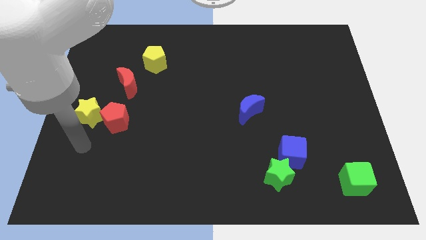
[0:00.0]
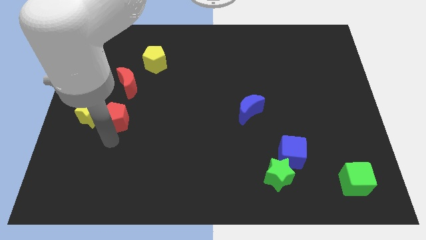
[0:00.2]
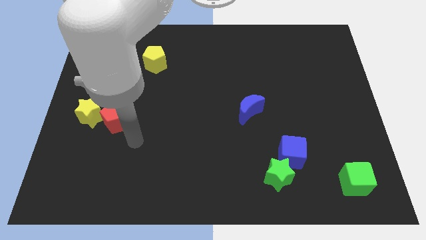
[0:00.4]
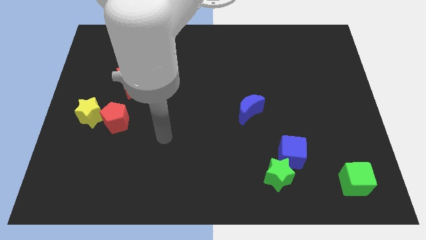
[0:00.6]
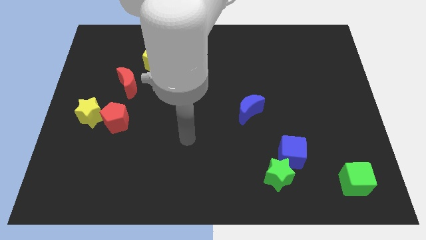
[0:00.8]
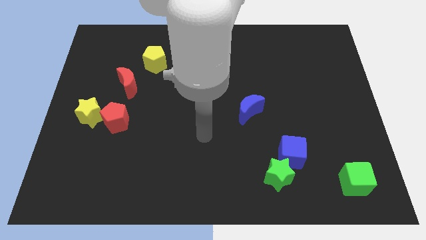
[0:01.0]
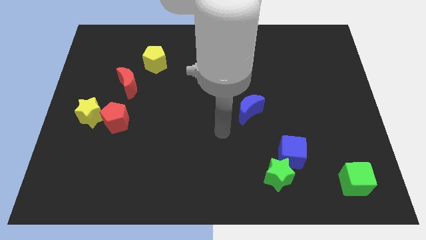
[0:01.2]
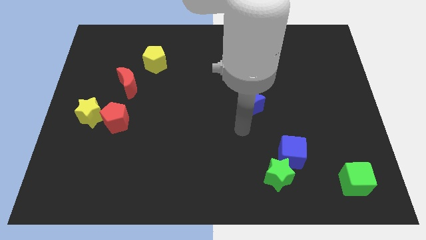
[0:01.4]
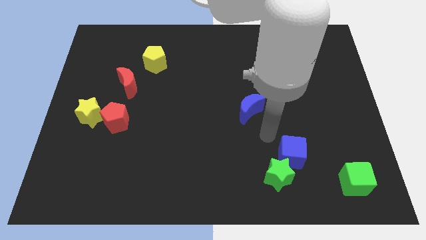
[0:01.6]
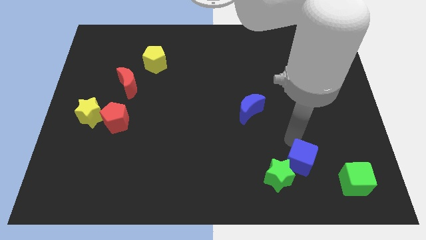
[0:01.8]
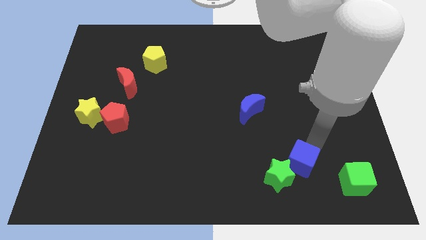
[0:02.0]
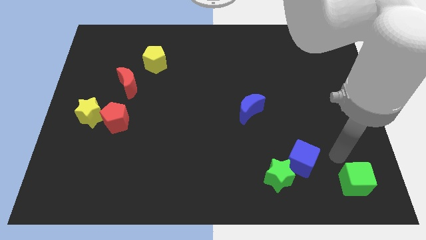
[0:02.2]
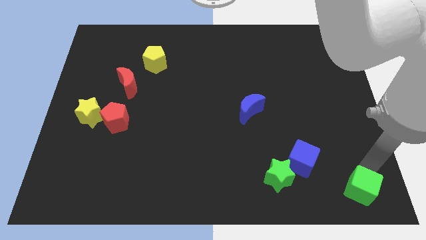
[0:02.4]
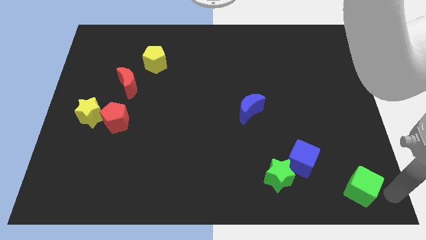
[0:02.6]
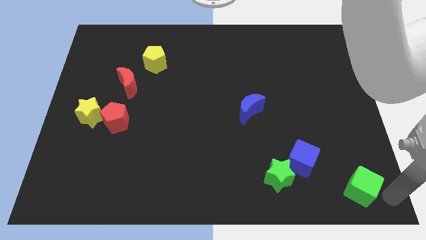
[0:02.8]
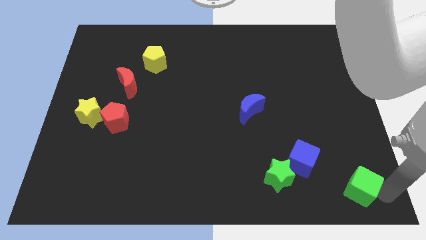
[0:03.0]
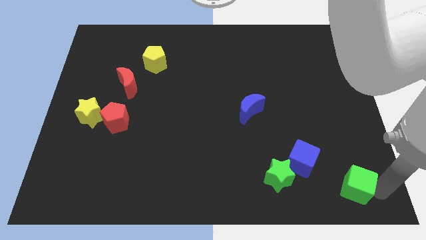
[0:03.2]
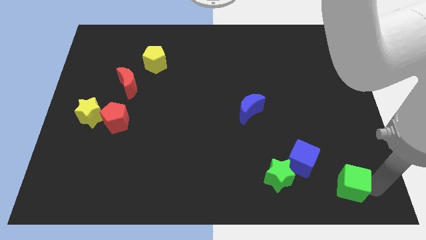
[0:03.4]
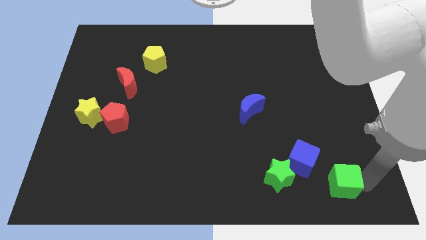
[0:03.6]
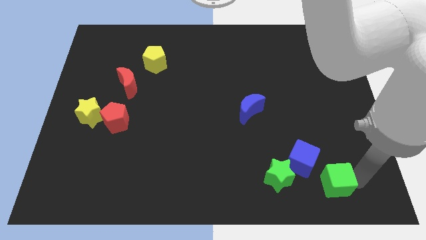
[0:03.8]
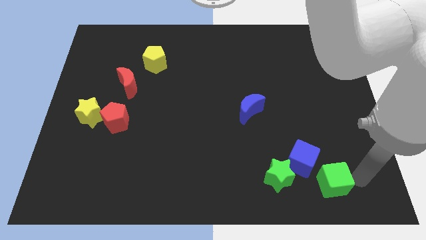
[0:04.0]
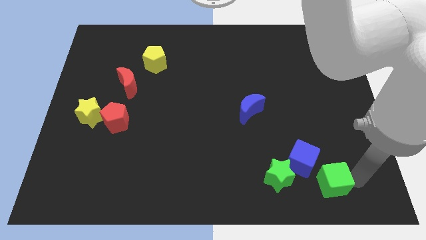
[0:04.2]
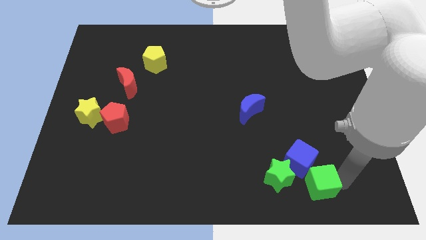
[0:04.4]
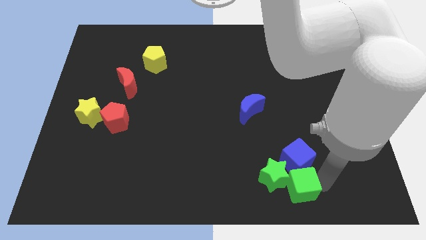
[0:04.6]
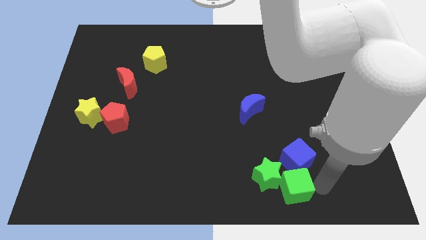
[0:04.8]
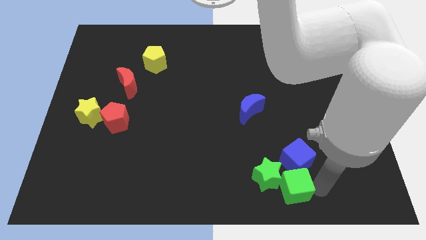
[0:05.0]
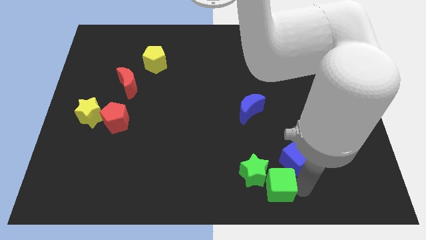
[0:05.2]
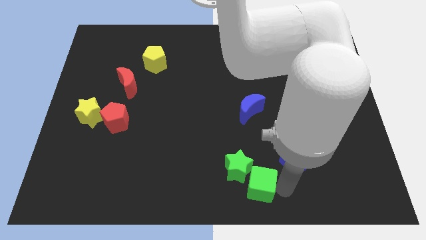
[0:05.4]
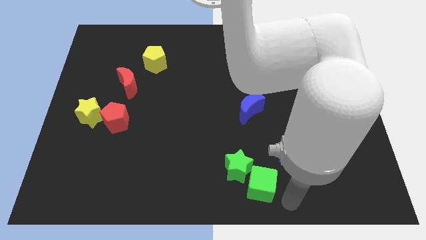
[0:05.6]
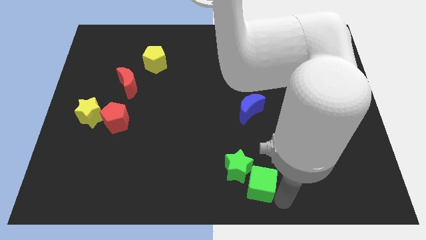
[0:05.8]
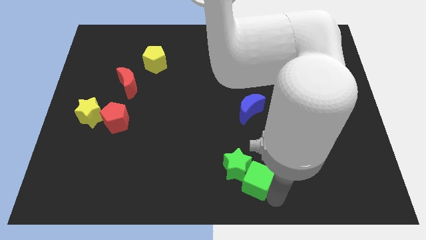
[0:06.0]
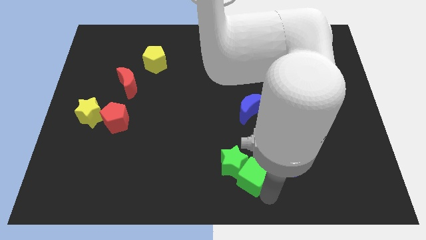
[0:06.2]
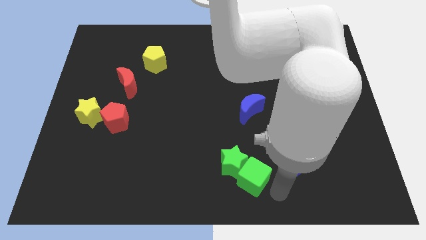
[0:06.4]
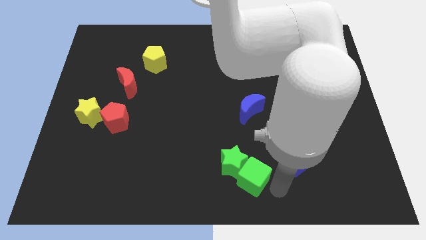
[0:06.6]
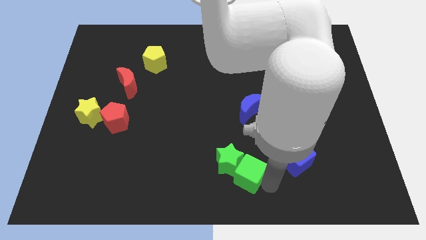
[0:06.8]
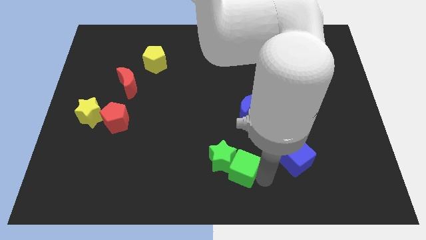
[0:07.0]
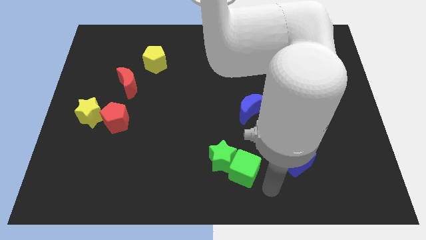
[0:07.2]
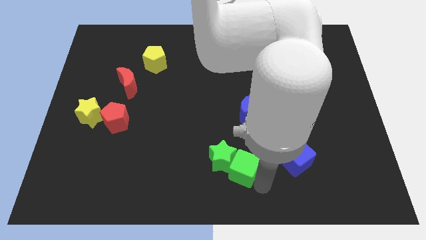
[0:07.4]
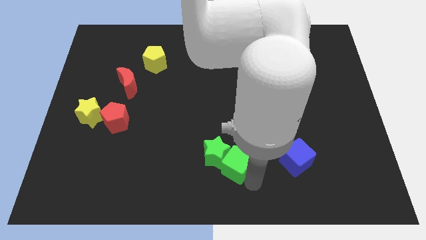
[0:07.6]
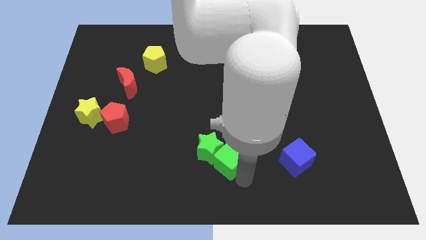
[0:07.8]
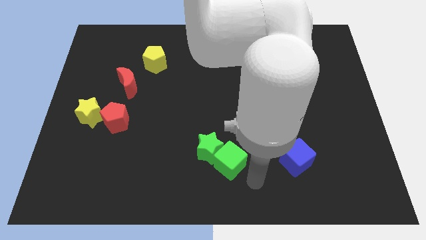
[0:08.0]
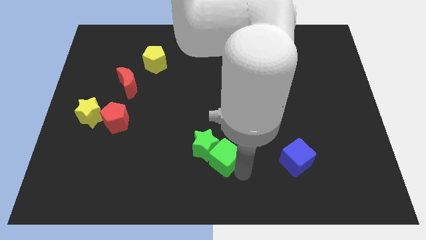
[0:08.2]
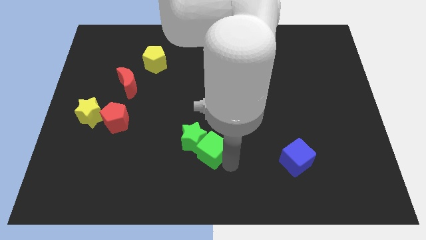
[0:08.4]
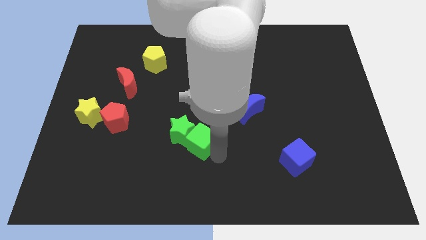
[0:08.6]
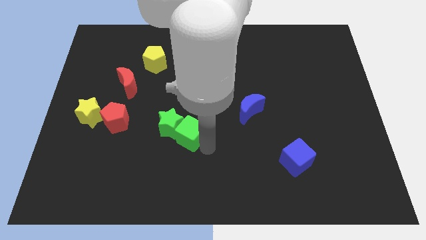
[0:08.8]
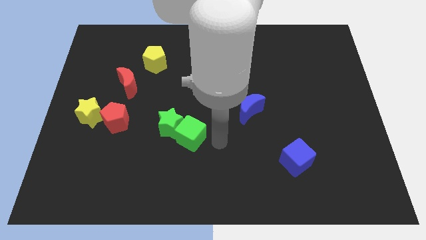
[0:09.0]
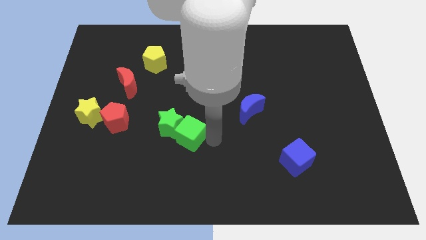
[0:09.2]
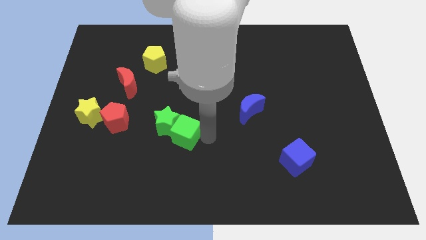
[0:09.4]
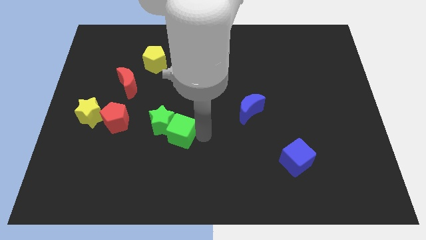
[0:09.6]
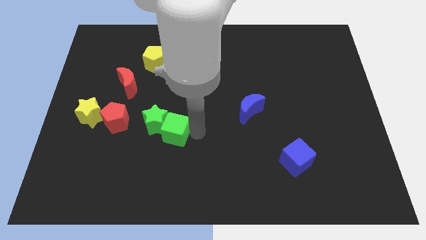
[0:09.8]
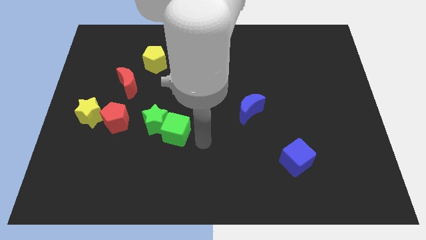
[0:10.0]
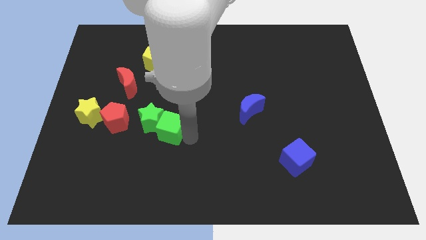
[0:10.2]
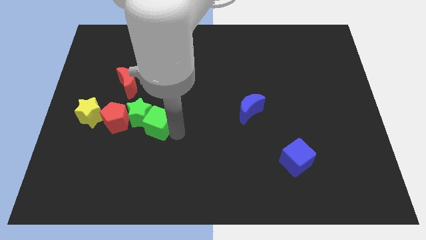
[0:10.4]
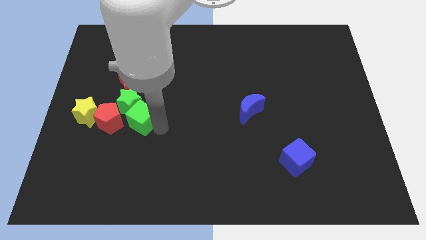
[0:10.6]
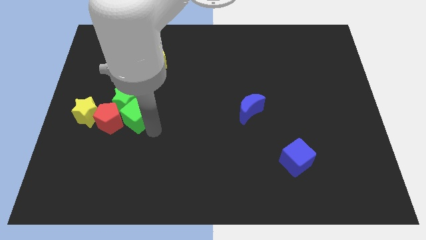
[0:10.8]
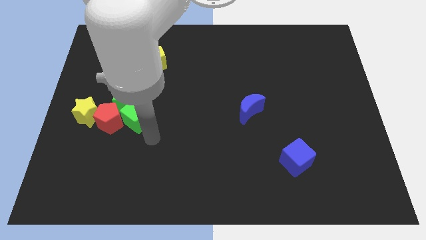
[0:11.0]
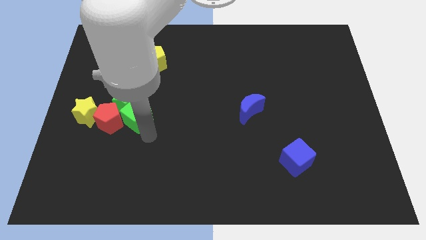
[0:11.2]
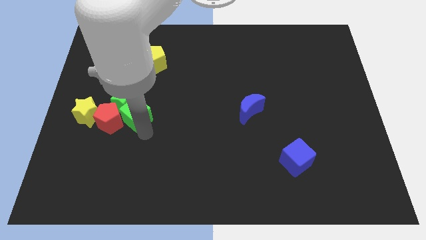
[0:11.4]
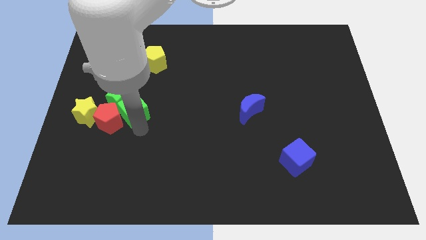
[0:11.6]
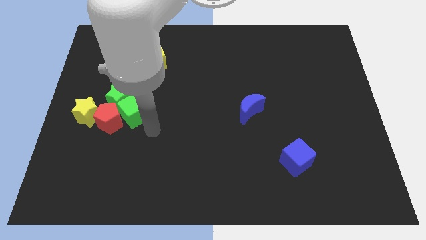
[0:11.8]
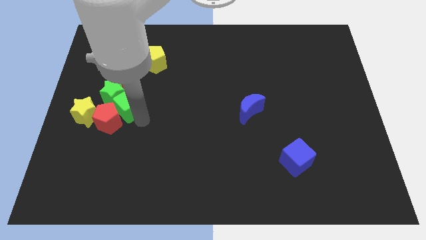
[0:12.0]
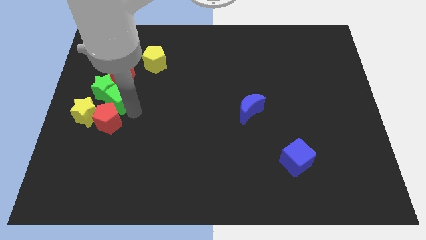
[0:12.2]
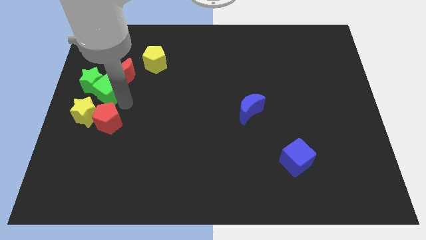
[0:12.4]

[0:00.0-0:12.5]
put the green cube above the yellow star

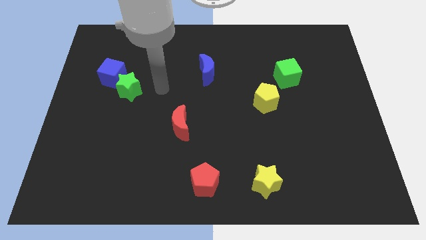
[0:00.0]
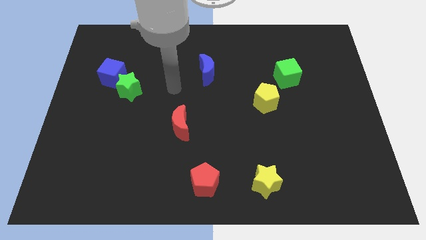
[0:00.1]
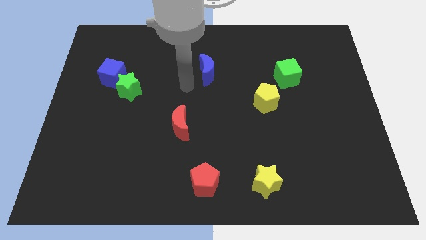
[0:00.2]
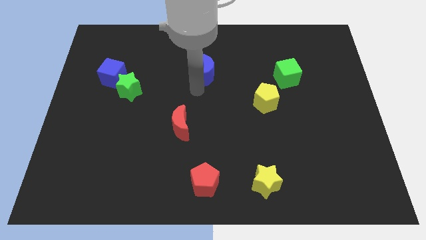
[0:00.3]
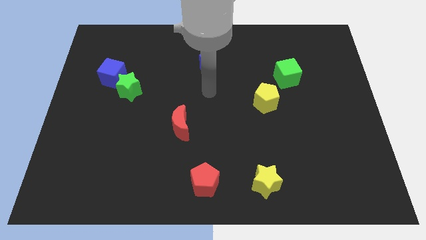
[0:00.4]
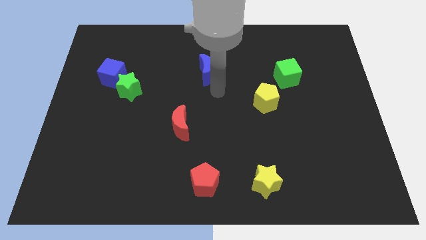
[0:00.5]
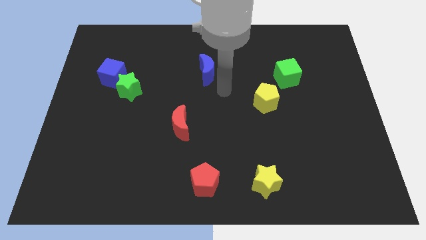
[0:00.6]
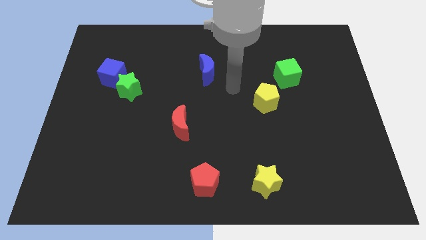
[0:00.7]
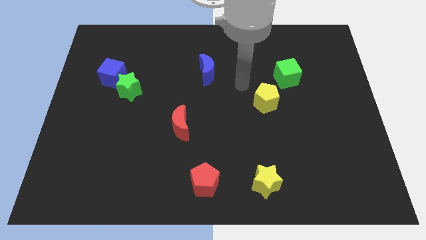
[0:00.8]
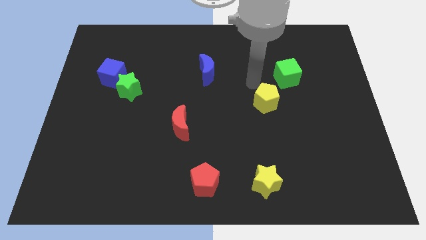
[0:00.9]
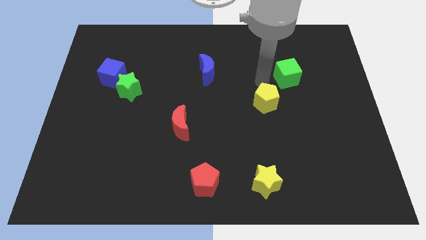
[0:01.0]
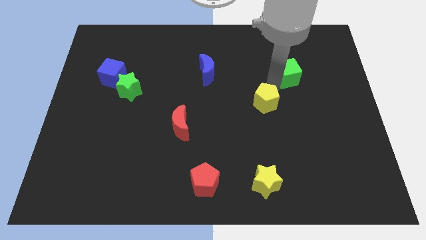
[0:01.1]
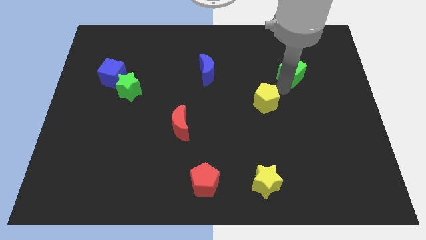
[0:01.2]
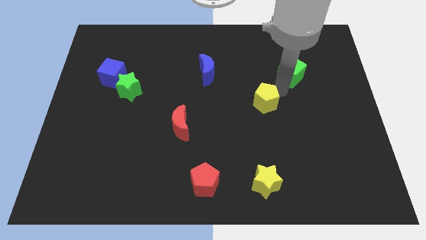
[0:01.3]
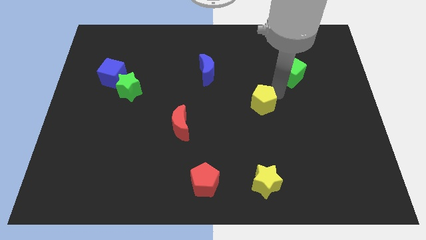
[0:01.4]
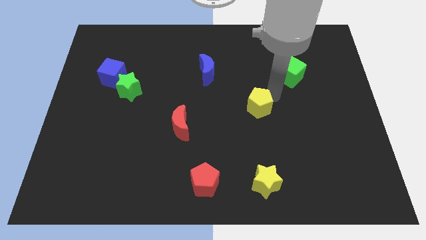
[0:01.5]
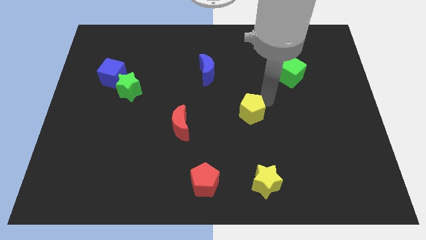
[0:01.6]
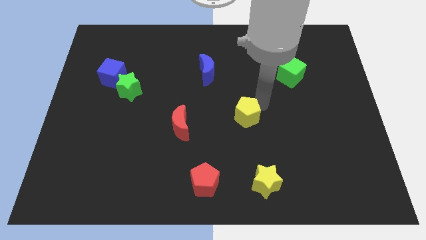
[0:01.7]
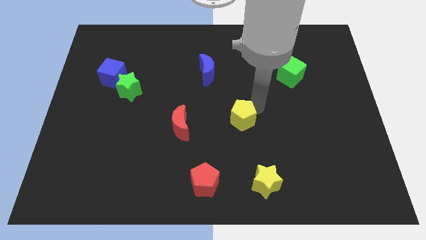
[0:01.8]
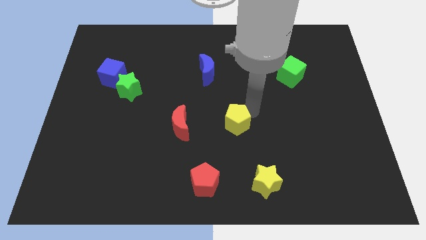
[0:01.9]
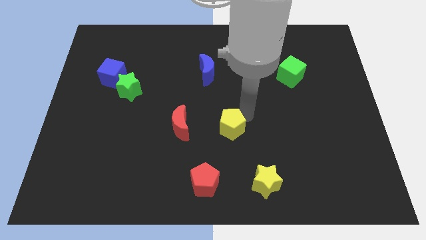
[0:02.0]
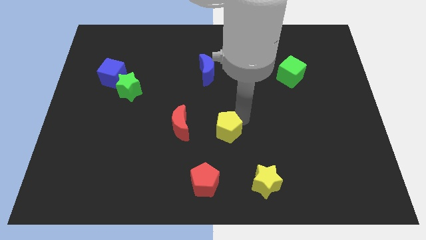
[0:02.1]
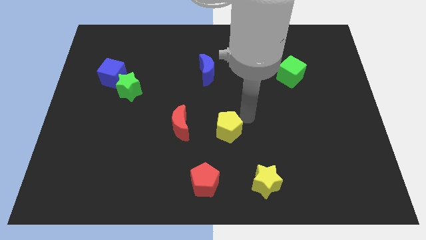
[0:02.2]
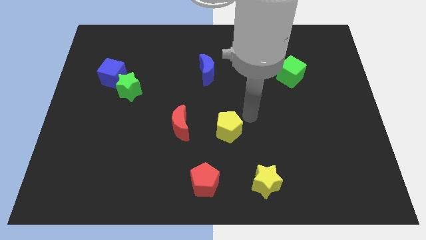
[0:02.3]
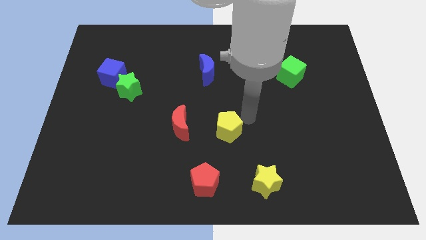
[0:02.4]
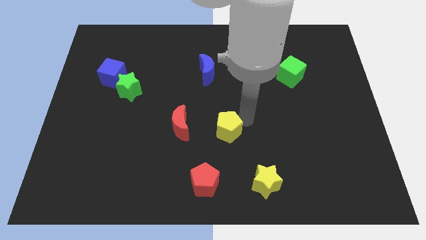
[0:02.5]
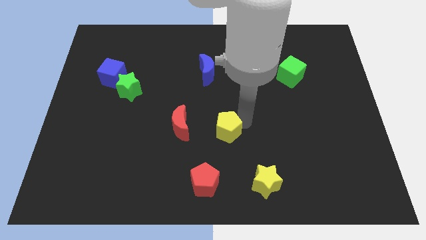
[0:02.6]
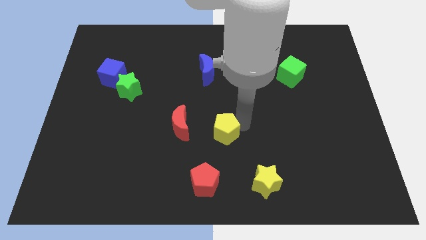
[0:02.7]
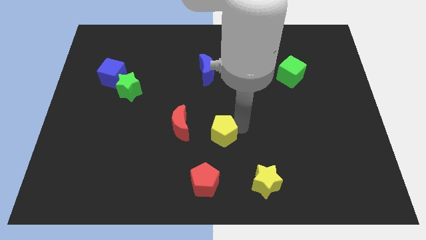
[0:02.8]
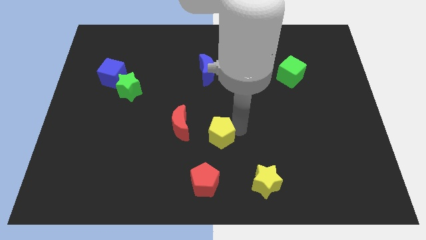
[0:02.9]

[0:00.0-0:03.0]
slide the yellow pentagon diagonally down and to the right of the red moon
